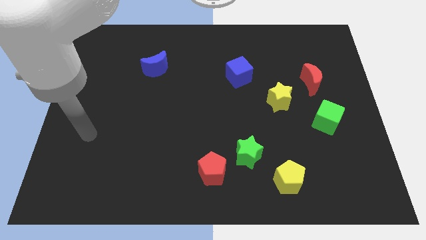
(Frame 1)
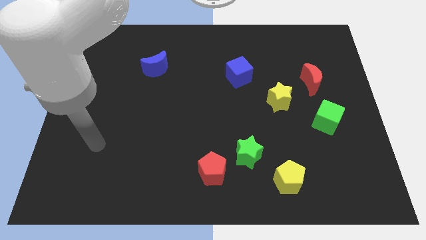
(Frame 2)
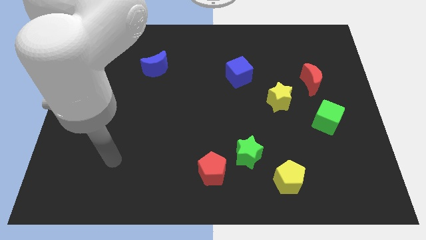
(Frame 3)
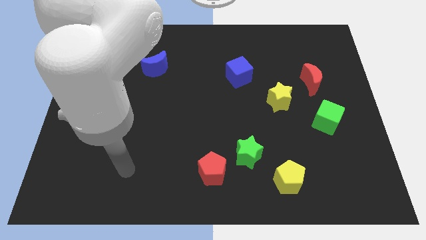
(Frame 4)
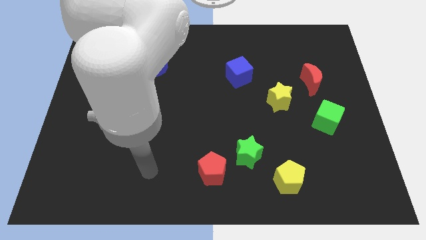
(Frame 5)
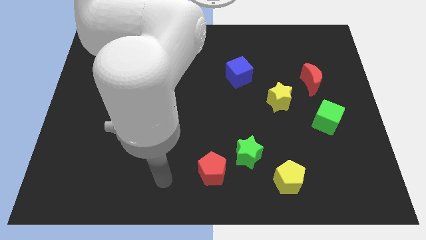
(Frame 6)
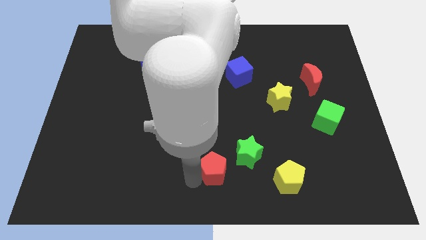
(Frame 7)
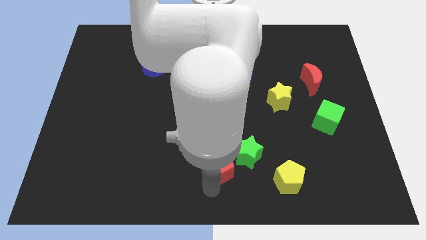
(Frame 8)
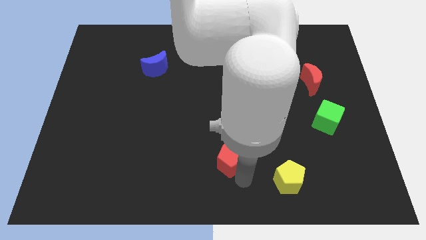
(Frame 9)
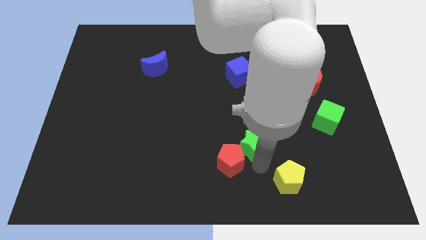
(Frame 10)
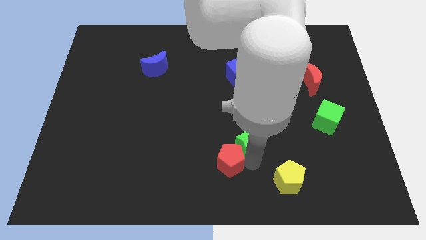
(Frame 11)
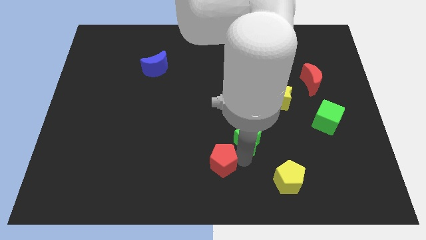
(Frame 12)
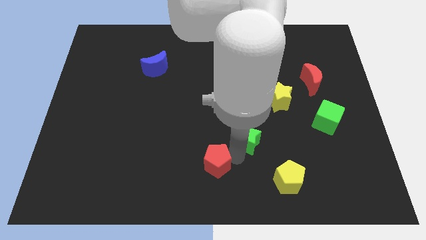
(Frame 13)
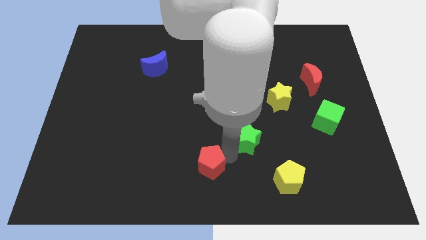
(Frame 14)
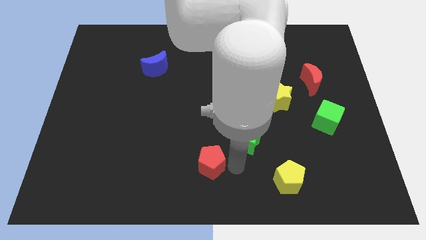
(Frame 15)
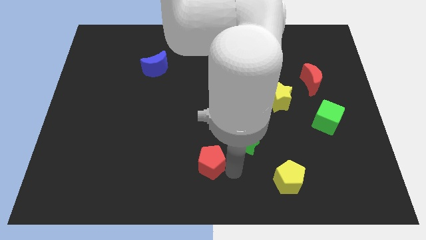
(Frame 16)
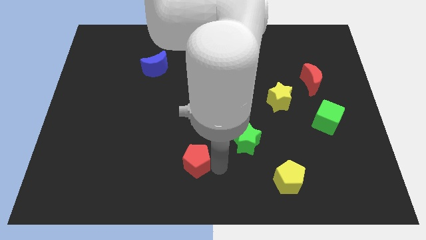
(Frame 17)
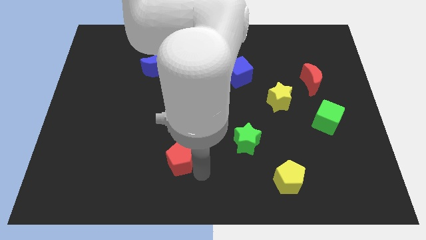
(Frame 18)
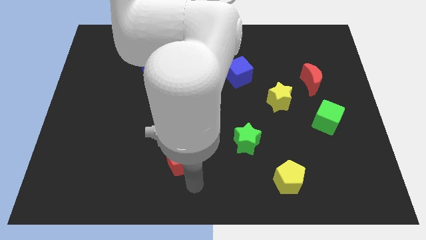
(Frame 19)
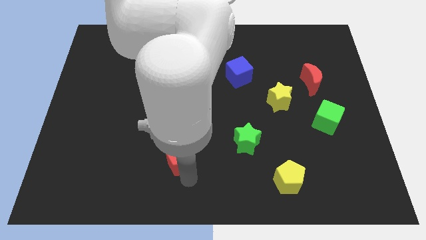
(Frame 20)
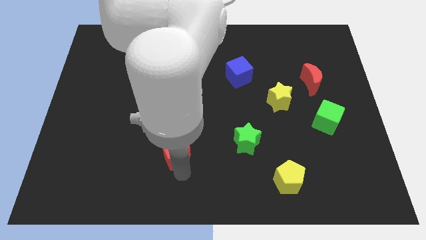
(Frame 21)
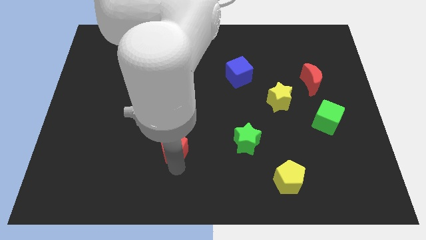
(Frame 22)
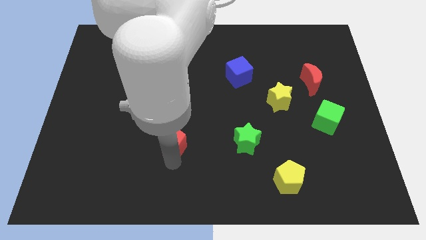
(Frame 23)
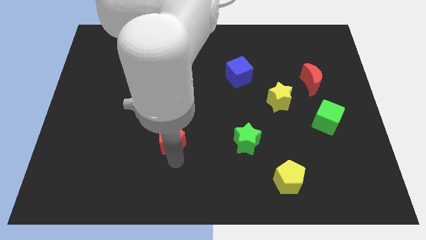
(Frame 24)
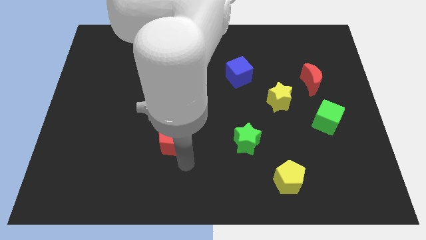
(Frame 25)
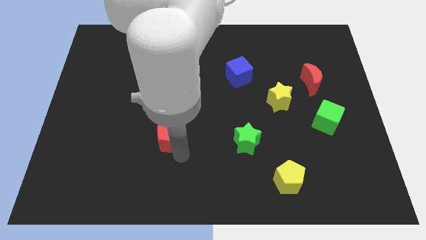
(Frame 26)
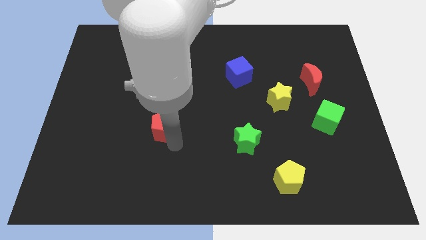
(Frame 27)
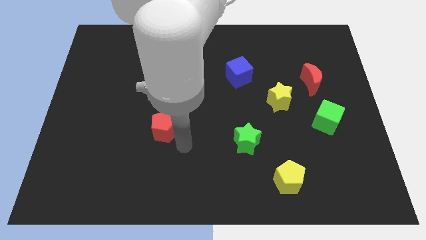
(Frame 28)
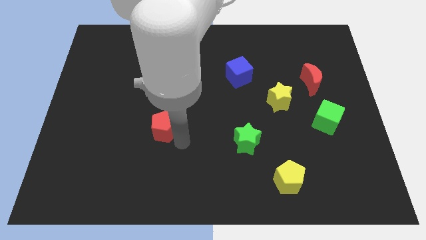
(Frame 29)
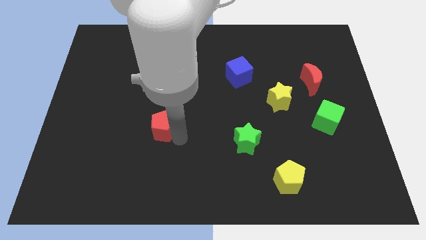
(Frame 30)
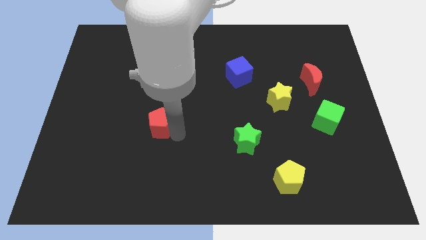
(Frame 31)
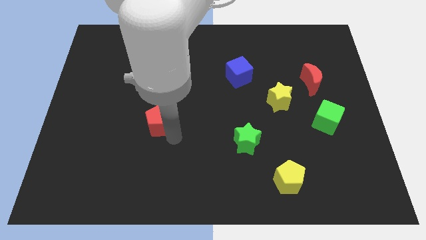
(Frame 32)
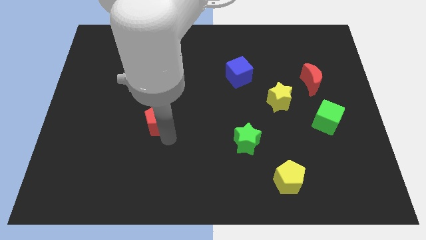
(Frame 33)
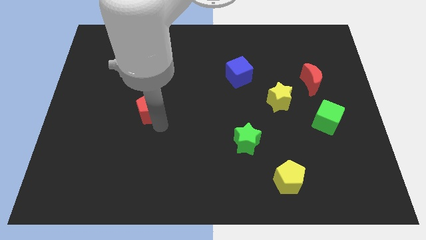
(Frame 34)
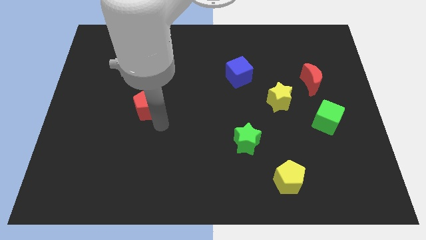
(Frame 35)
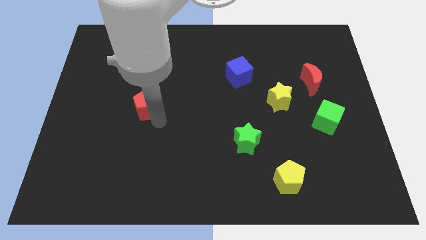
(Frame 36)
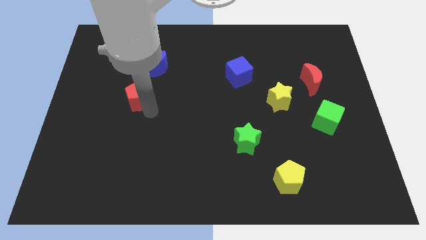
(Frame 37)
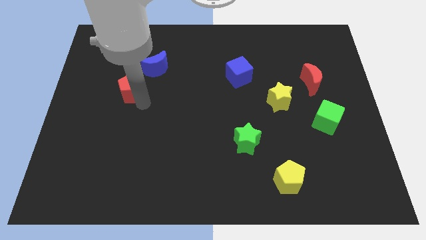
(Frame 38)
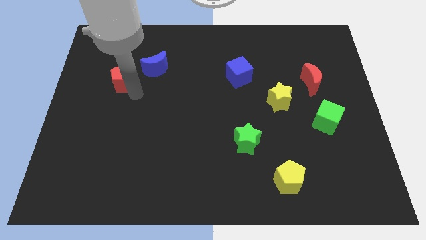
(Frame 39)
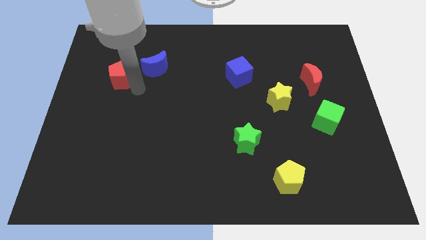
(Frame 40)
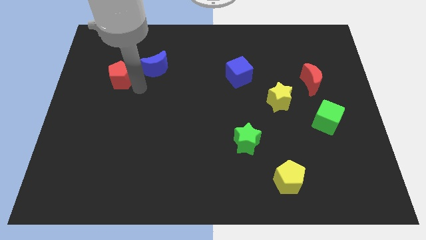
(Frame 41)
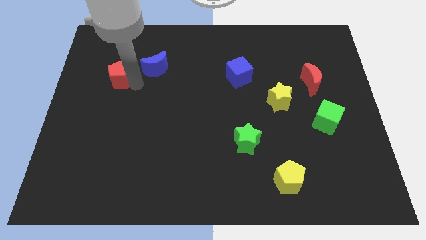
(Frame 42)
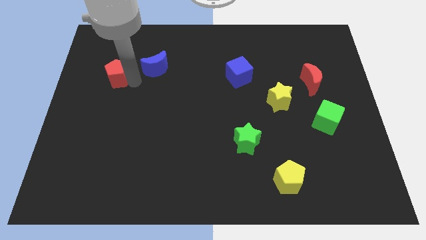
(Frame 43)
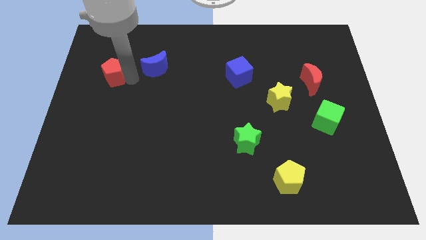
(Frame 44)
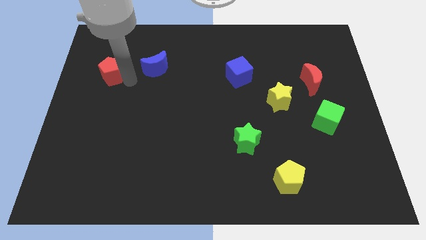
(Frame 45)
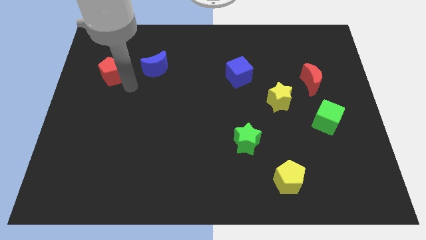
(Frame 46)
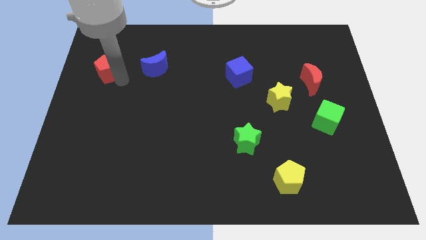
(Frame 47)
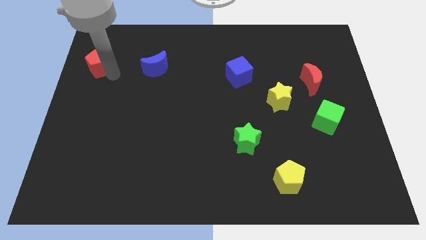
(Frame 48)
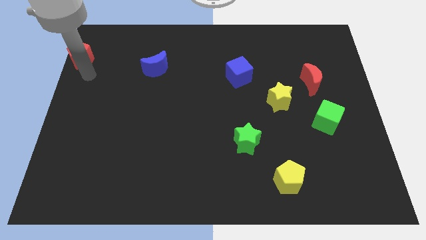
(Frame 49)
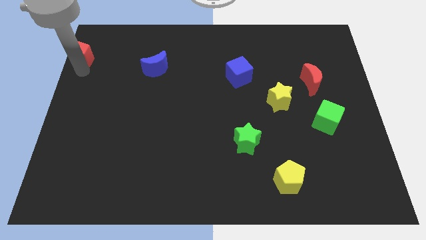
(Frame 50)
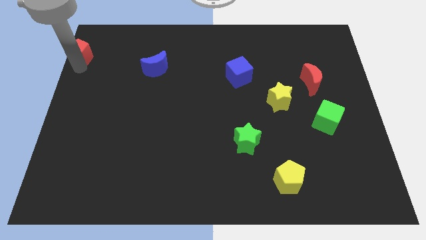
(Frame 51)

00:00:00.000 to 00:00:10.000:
slide the red pentagon to the top left

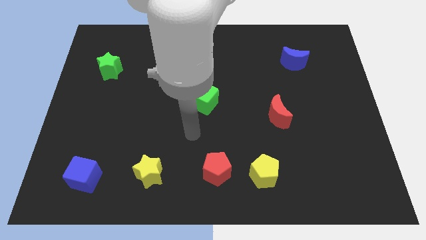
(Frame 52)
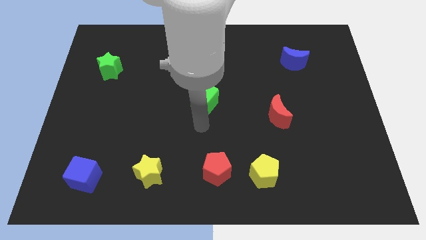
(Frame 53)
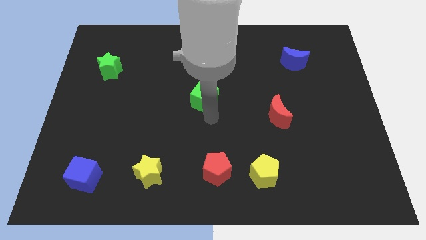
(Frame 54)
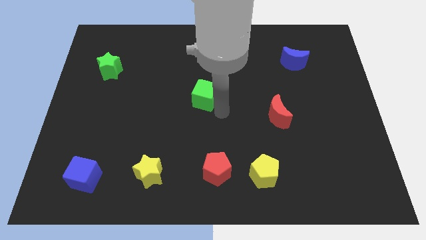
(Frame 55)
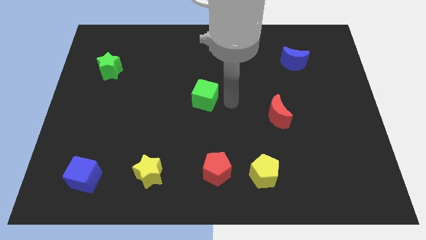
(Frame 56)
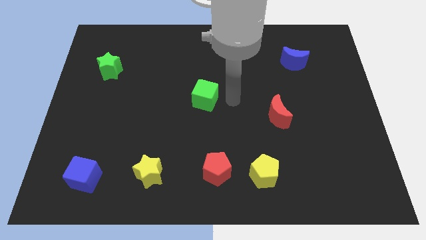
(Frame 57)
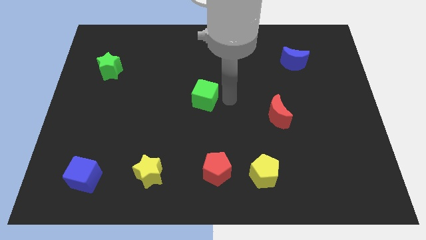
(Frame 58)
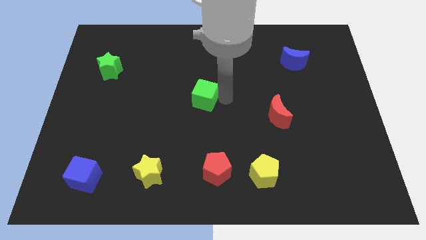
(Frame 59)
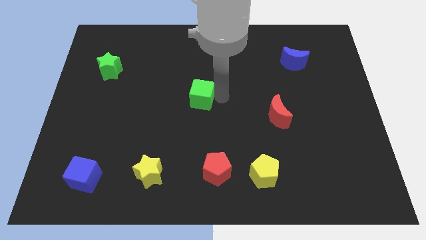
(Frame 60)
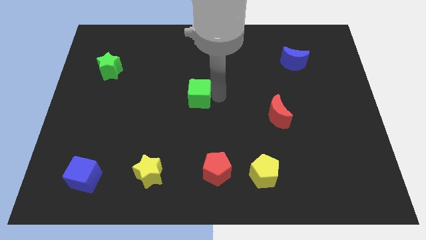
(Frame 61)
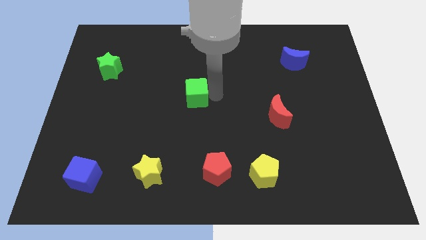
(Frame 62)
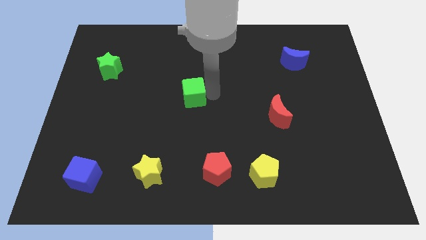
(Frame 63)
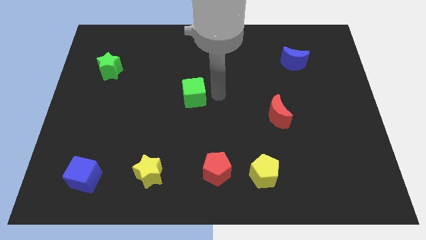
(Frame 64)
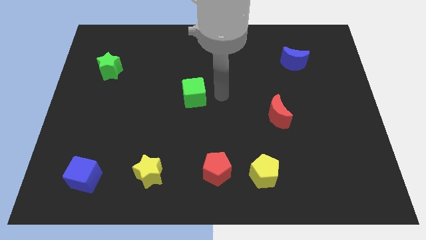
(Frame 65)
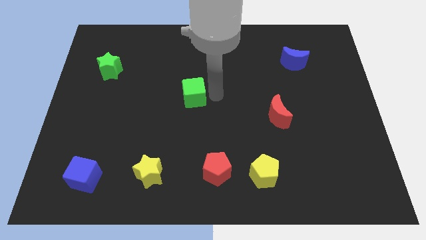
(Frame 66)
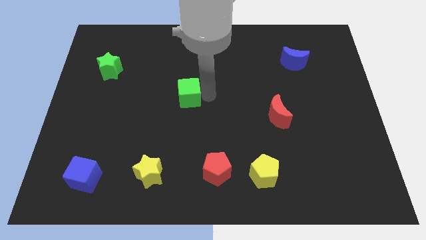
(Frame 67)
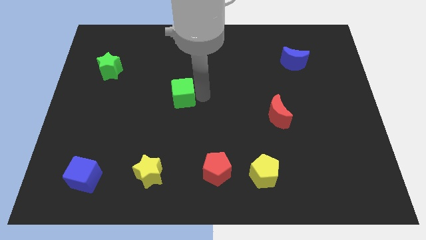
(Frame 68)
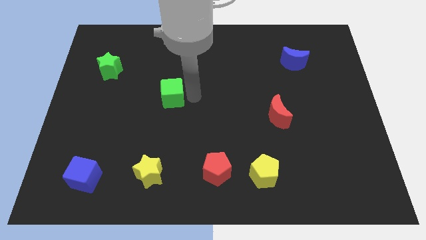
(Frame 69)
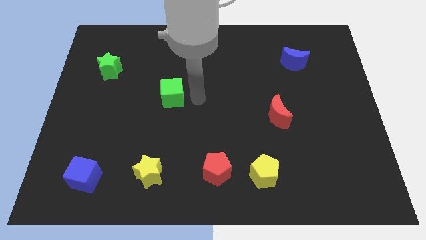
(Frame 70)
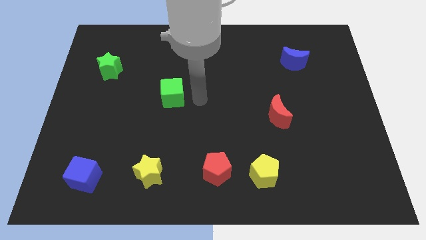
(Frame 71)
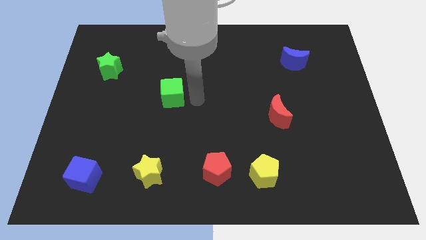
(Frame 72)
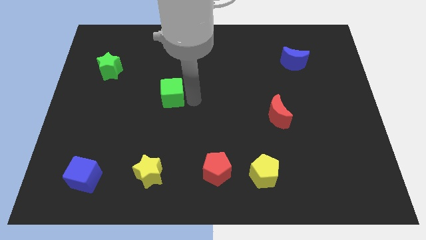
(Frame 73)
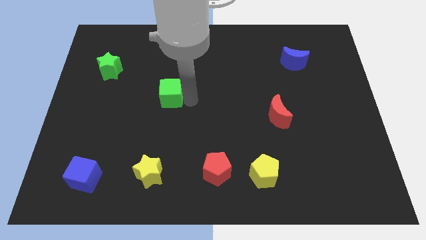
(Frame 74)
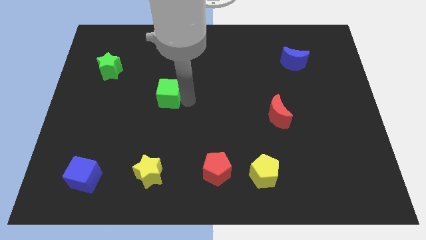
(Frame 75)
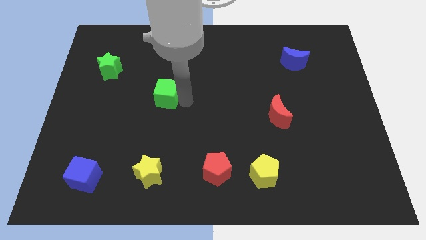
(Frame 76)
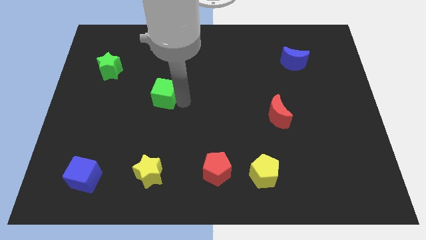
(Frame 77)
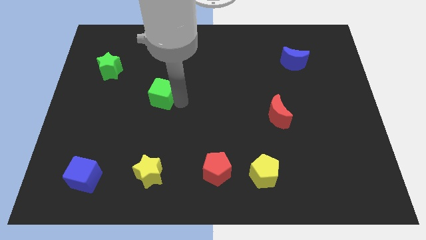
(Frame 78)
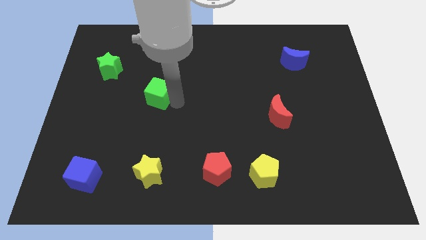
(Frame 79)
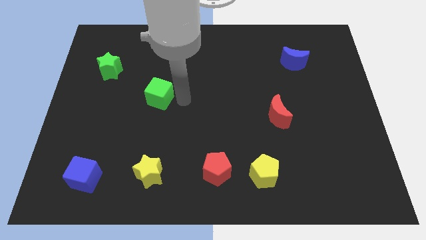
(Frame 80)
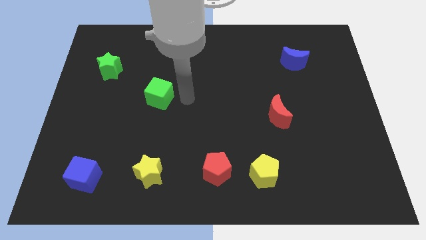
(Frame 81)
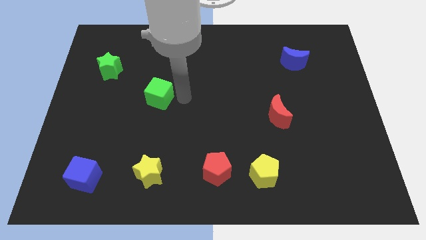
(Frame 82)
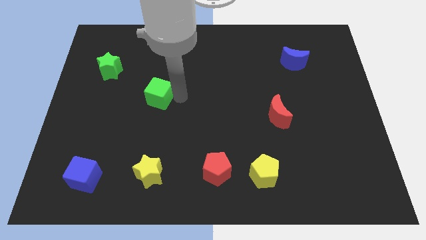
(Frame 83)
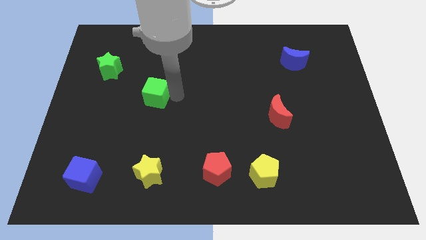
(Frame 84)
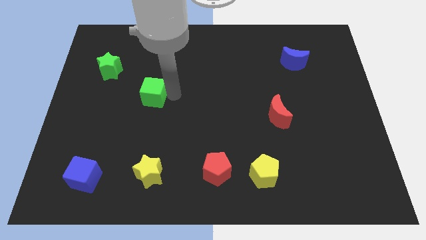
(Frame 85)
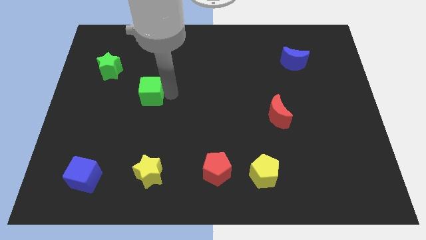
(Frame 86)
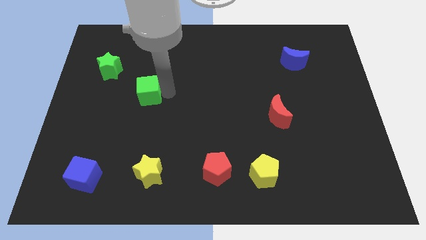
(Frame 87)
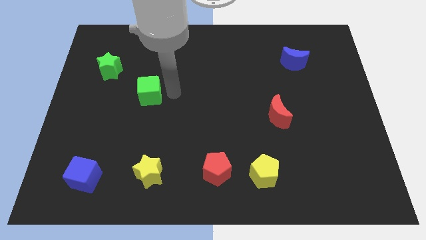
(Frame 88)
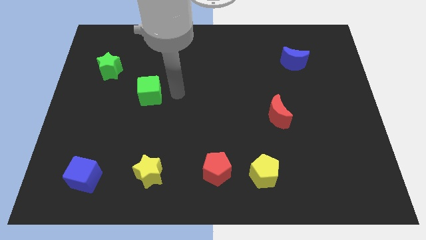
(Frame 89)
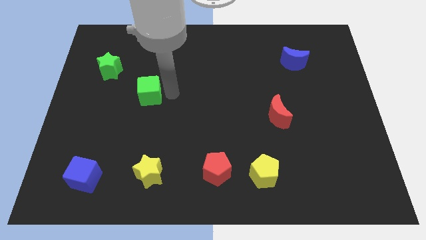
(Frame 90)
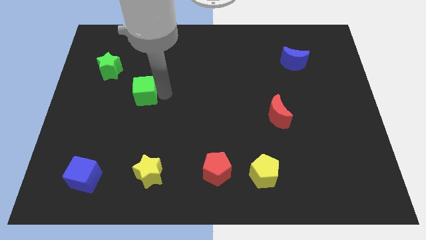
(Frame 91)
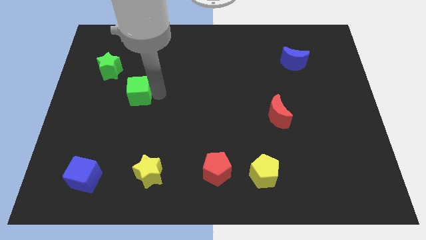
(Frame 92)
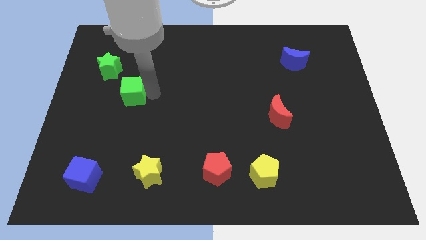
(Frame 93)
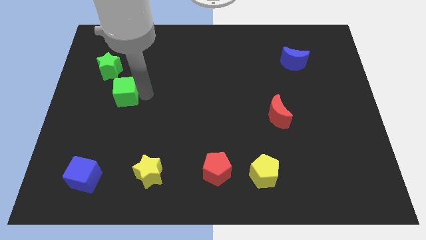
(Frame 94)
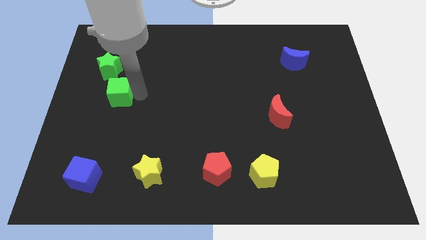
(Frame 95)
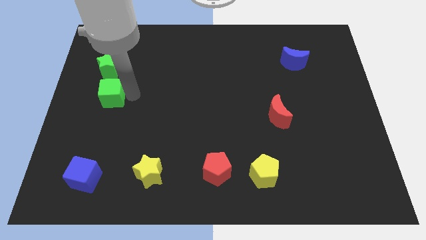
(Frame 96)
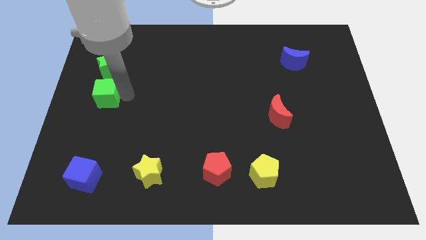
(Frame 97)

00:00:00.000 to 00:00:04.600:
slide the green cube to the left side
